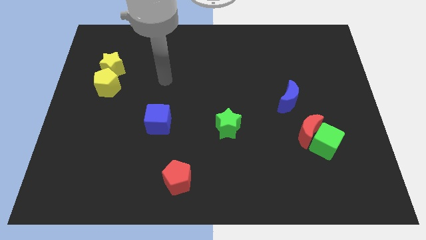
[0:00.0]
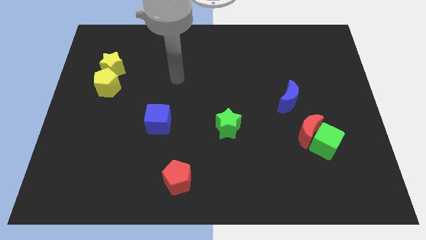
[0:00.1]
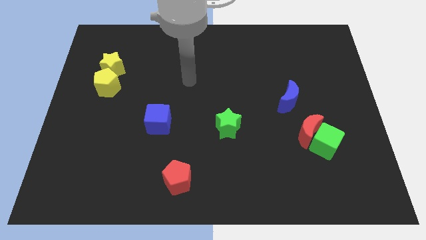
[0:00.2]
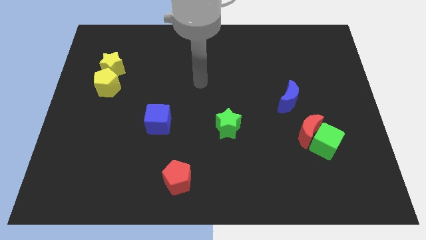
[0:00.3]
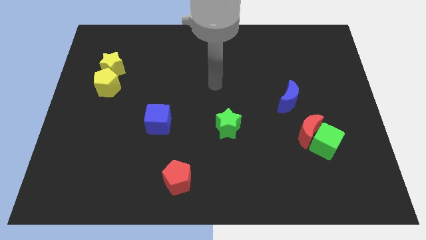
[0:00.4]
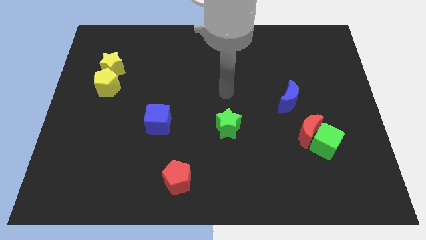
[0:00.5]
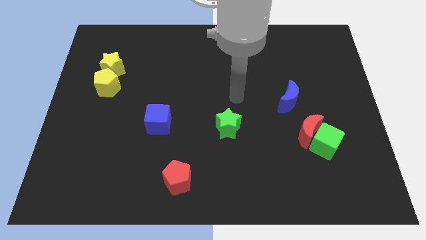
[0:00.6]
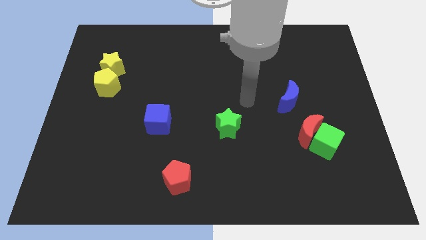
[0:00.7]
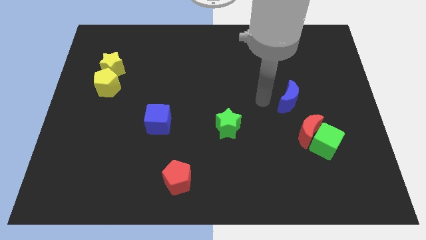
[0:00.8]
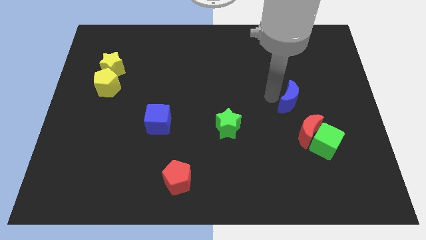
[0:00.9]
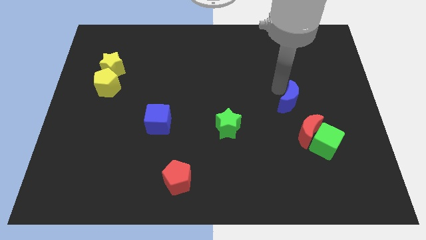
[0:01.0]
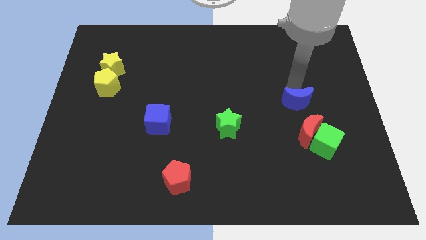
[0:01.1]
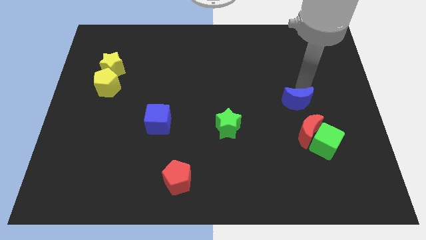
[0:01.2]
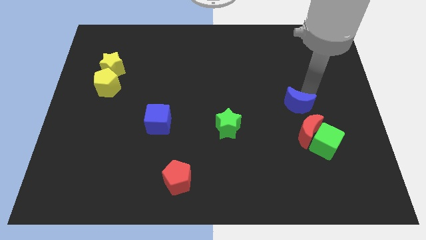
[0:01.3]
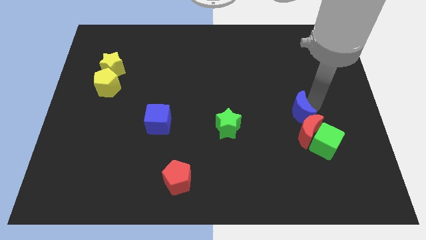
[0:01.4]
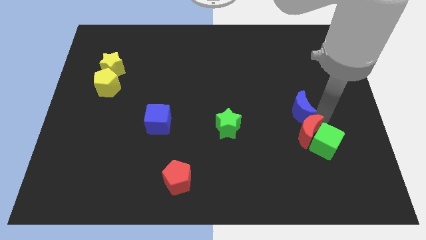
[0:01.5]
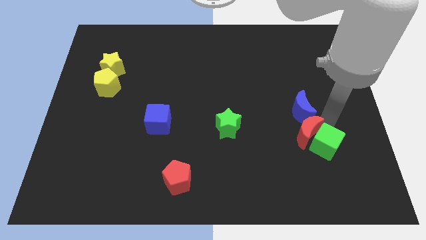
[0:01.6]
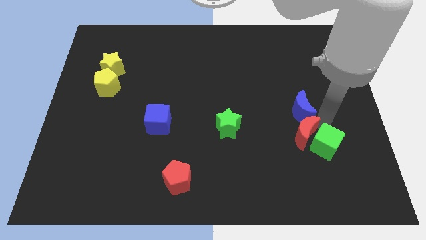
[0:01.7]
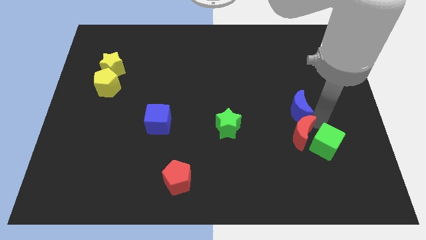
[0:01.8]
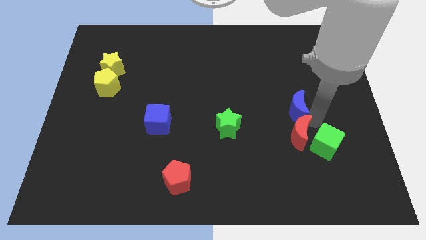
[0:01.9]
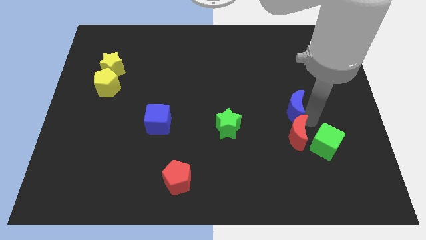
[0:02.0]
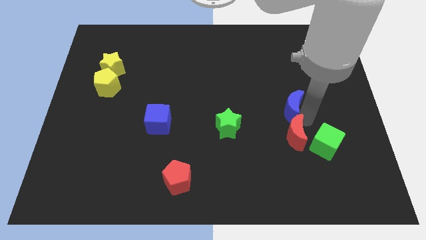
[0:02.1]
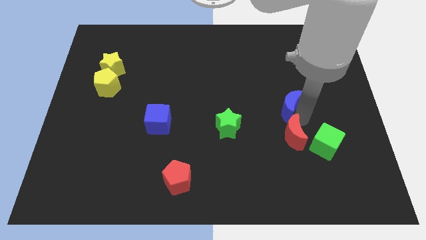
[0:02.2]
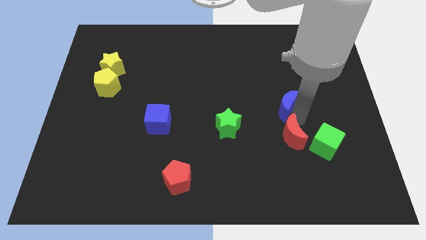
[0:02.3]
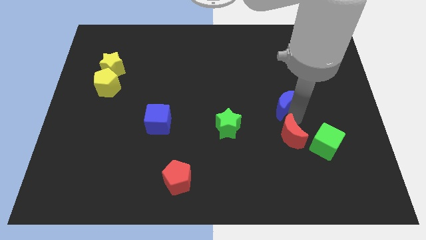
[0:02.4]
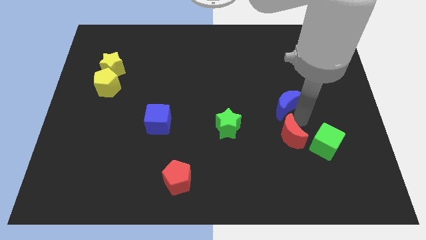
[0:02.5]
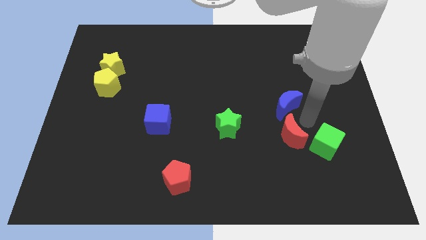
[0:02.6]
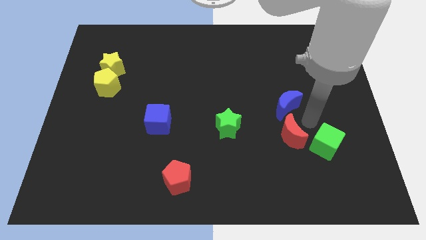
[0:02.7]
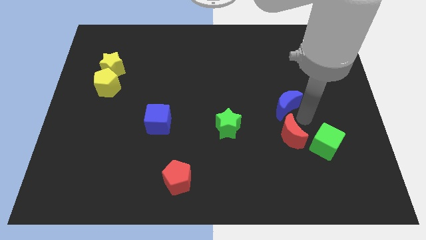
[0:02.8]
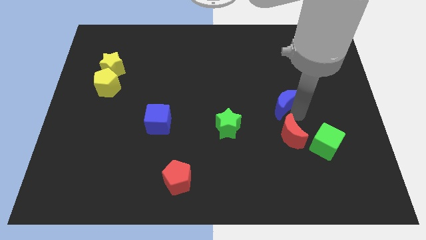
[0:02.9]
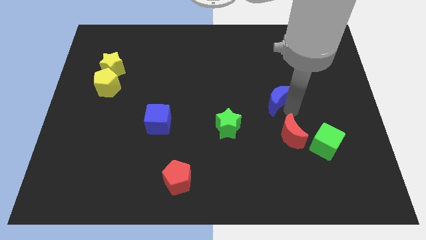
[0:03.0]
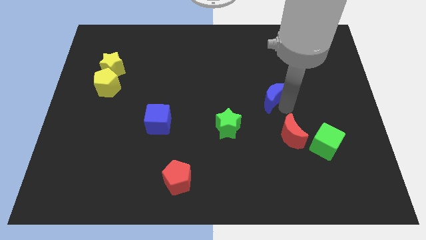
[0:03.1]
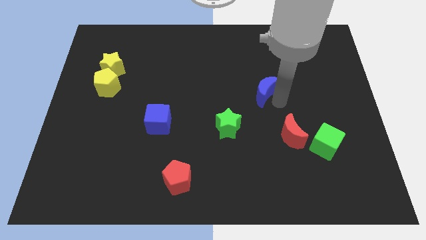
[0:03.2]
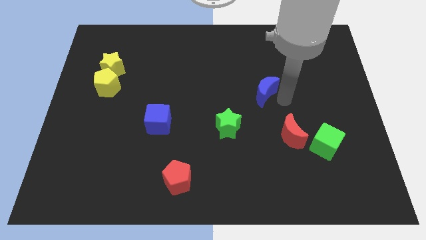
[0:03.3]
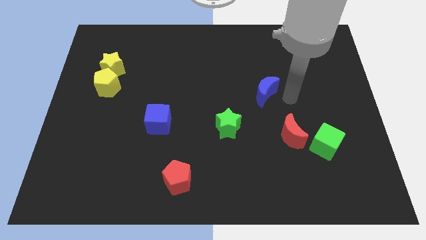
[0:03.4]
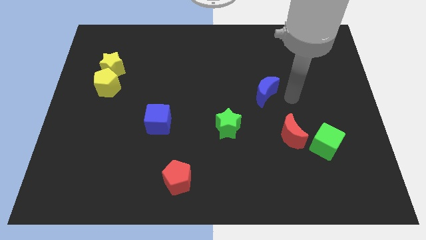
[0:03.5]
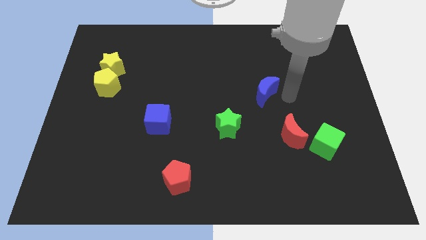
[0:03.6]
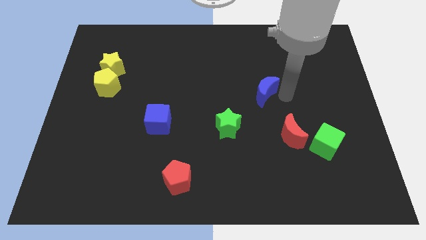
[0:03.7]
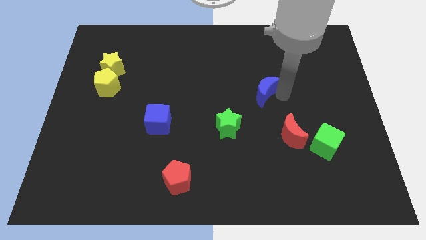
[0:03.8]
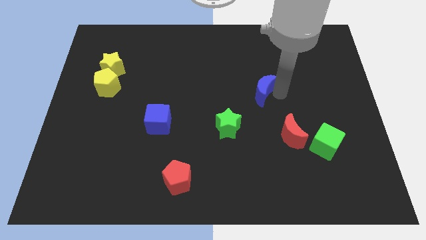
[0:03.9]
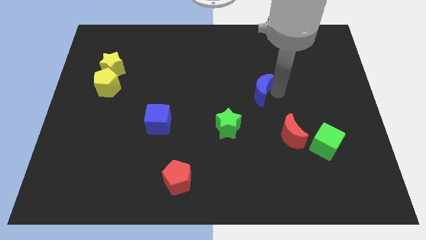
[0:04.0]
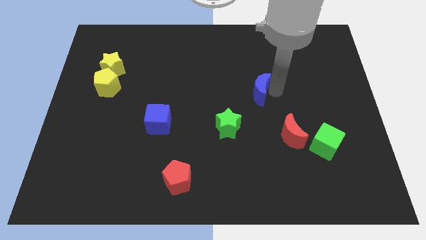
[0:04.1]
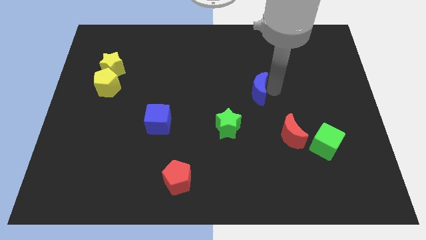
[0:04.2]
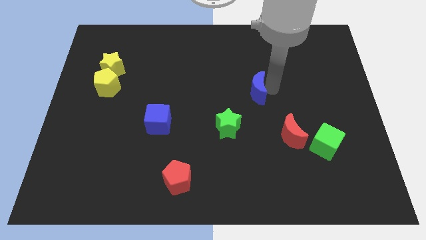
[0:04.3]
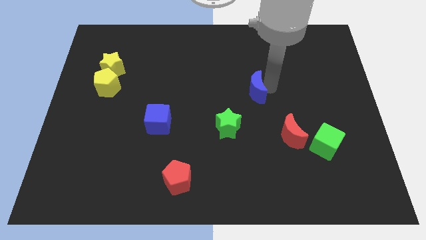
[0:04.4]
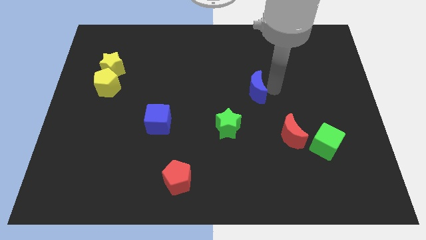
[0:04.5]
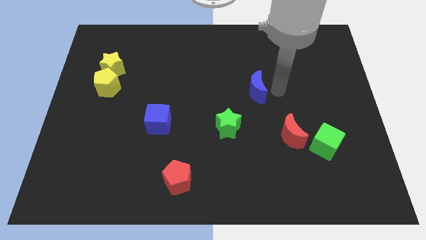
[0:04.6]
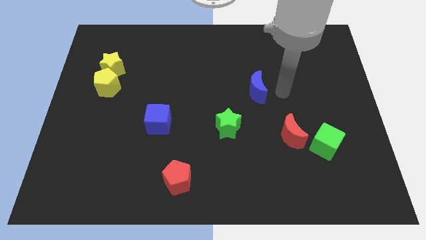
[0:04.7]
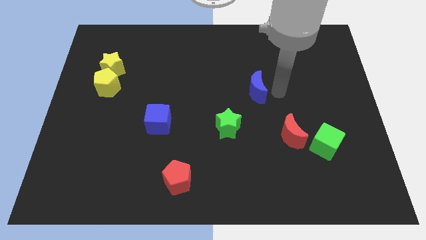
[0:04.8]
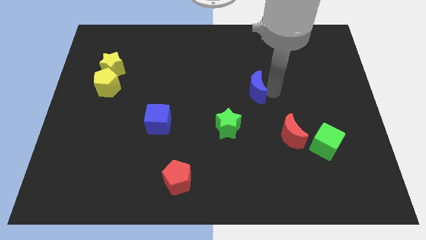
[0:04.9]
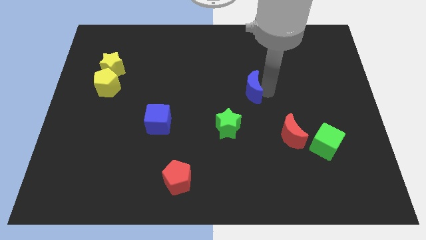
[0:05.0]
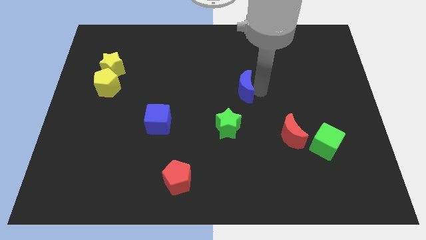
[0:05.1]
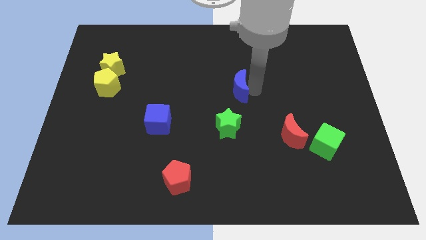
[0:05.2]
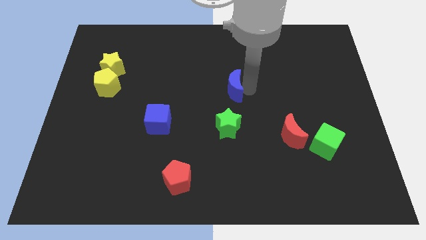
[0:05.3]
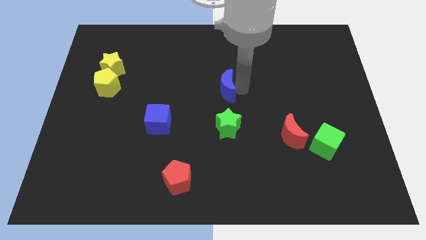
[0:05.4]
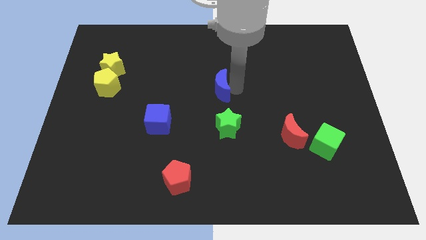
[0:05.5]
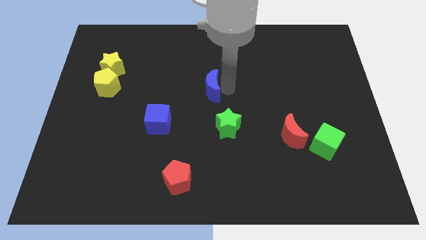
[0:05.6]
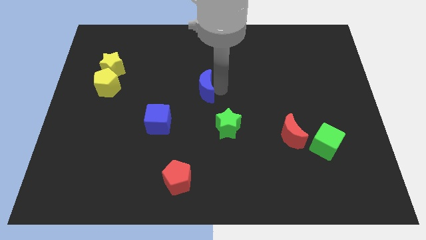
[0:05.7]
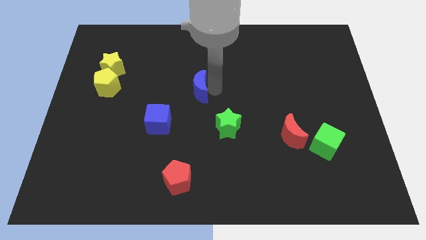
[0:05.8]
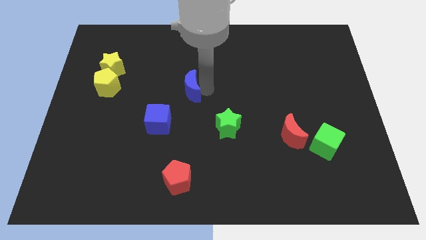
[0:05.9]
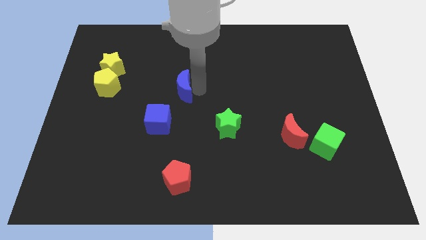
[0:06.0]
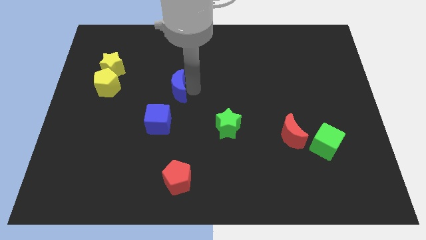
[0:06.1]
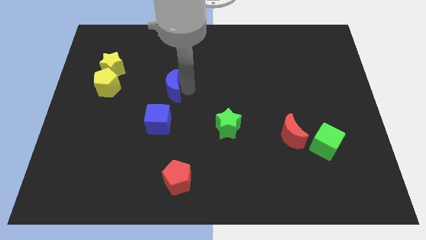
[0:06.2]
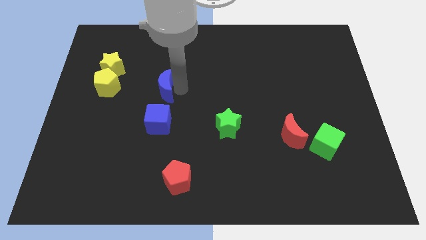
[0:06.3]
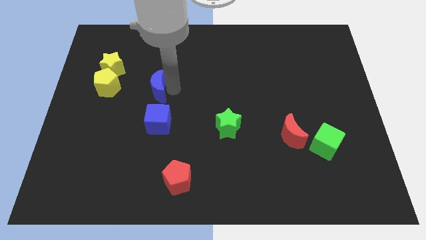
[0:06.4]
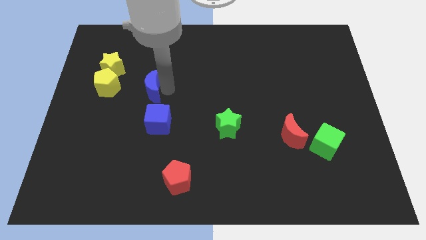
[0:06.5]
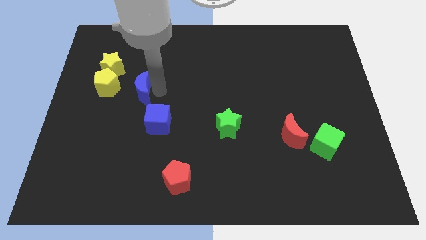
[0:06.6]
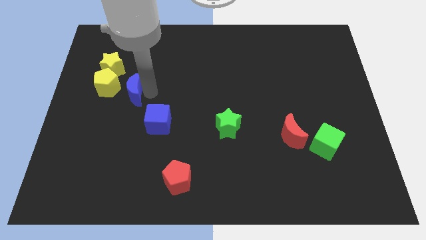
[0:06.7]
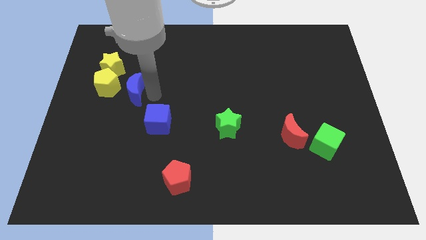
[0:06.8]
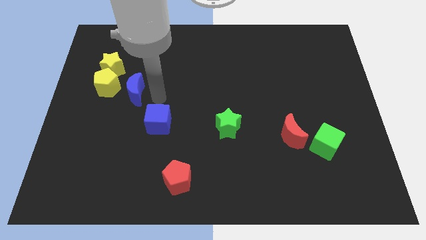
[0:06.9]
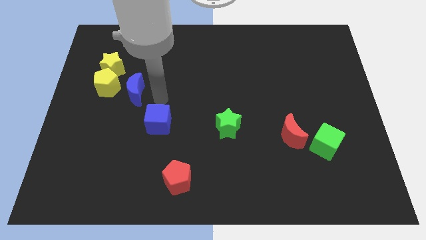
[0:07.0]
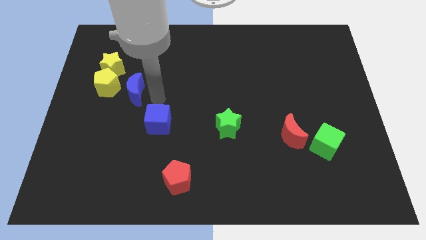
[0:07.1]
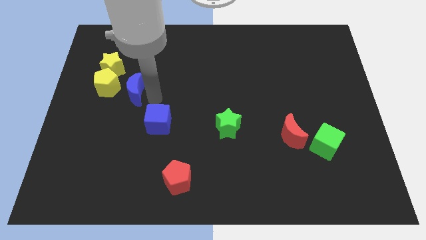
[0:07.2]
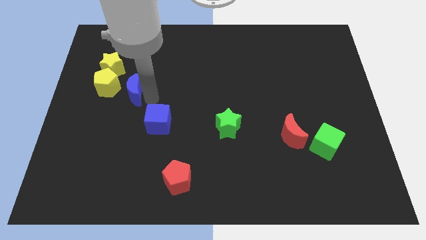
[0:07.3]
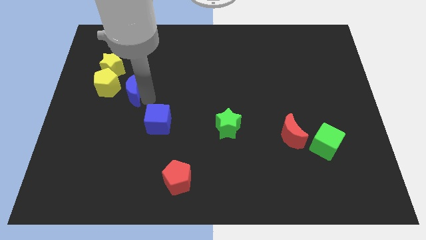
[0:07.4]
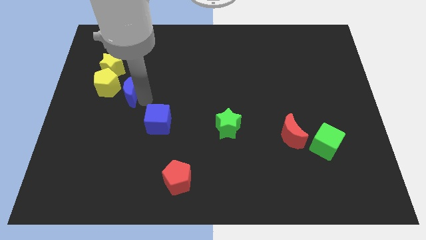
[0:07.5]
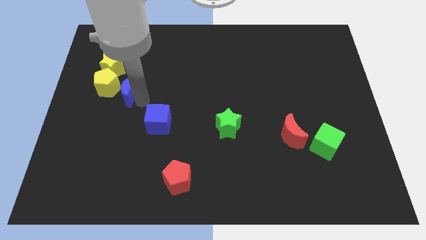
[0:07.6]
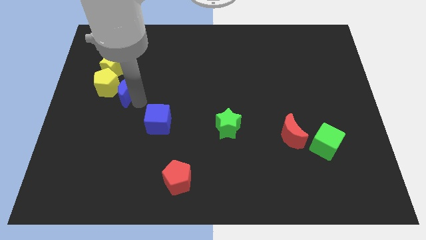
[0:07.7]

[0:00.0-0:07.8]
slide the blue moon close to the yellow pentagon
